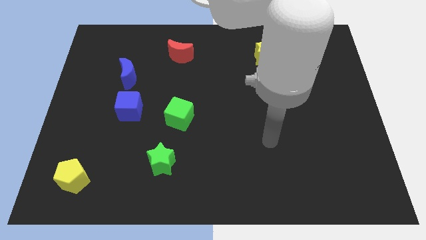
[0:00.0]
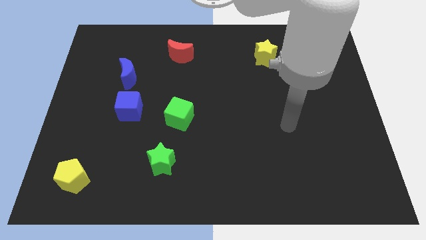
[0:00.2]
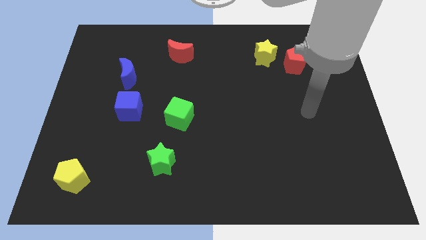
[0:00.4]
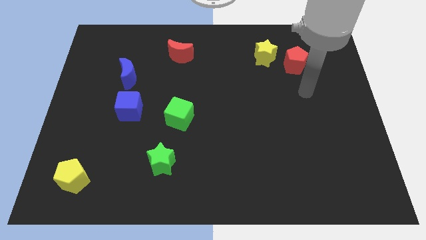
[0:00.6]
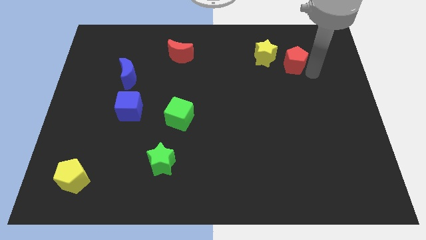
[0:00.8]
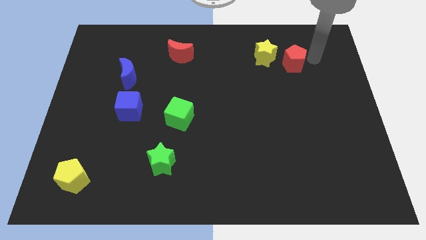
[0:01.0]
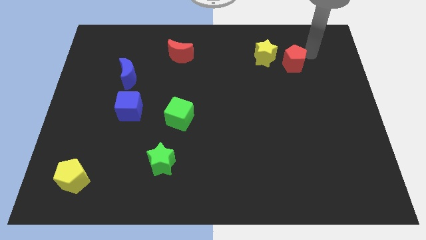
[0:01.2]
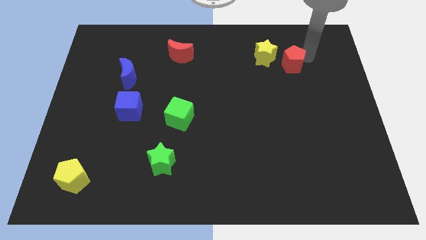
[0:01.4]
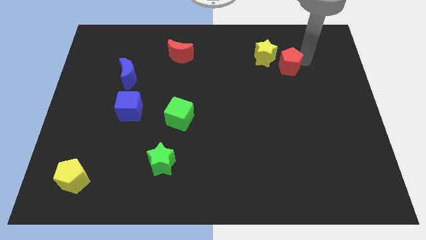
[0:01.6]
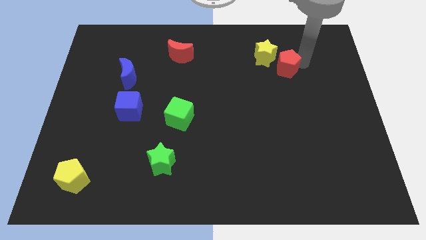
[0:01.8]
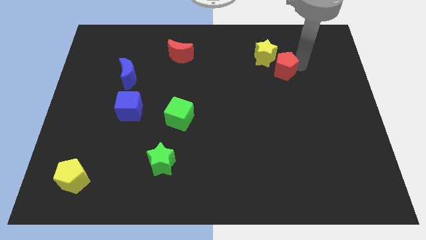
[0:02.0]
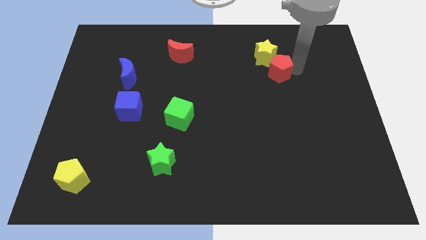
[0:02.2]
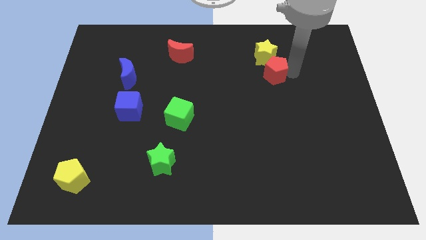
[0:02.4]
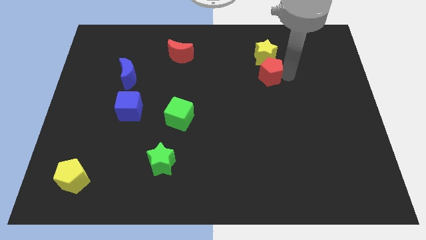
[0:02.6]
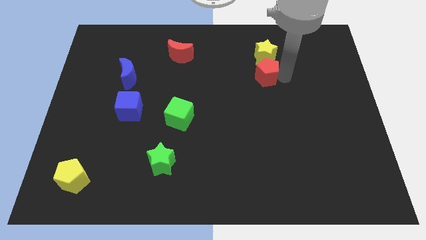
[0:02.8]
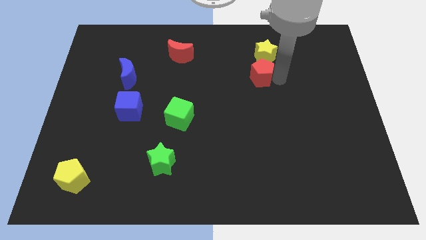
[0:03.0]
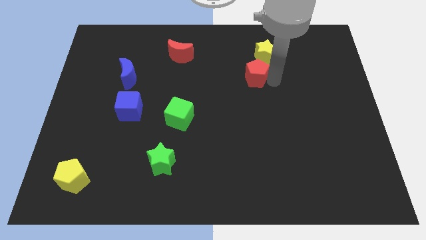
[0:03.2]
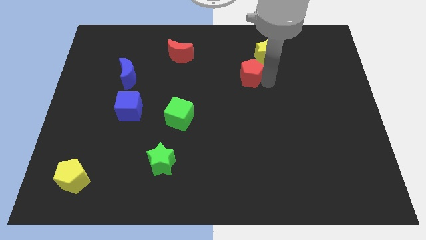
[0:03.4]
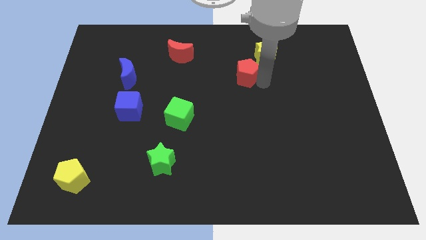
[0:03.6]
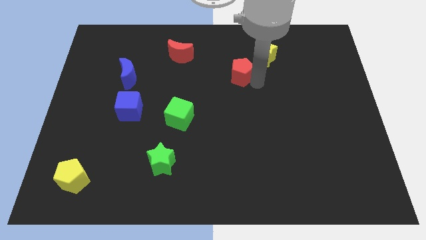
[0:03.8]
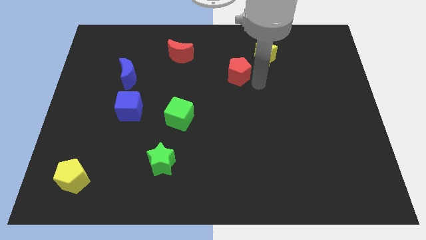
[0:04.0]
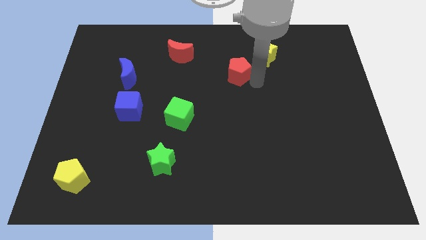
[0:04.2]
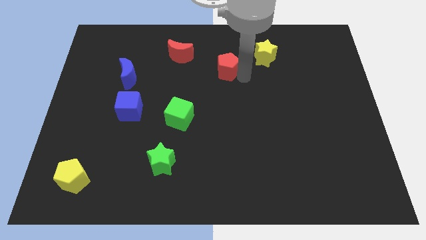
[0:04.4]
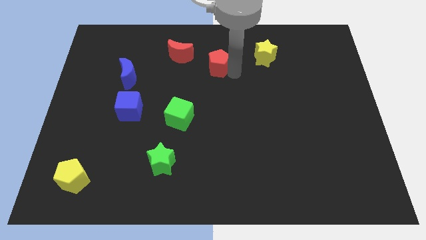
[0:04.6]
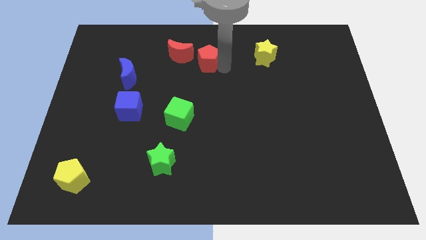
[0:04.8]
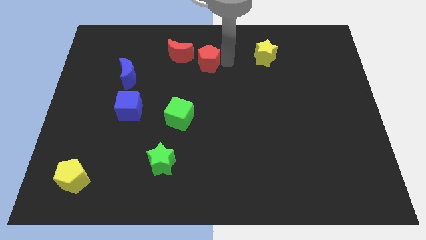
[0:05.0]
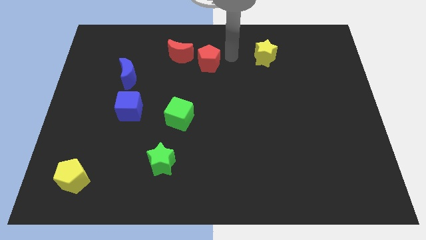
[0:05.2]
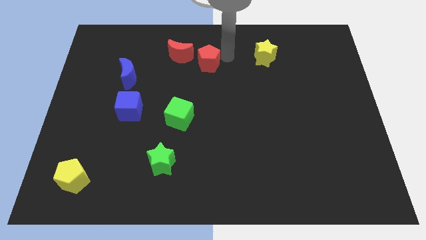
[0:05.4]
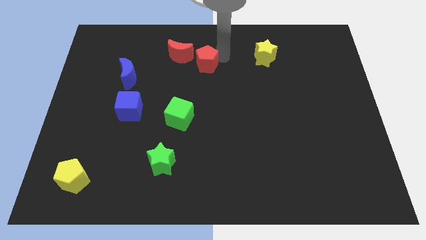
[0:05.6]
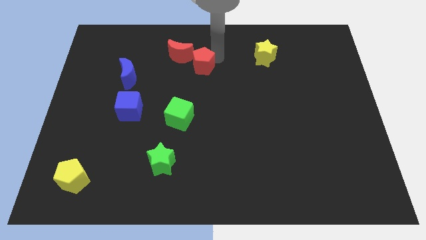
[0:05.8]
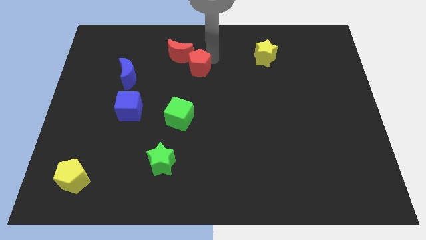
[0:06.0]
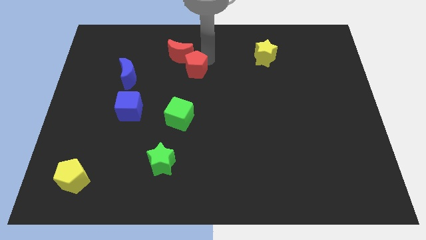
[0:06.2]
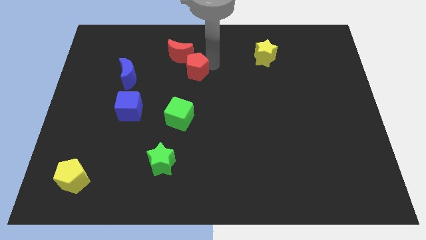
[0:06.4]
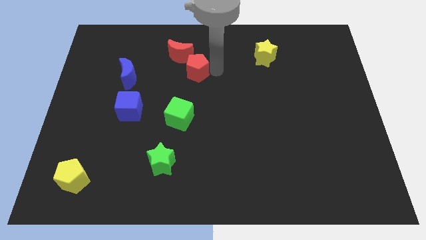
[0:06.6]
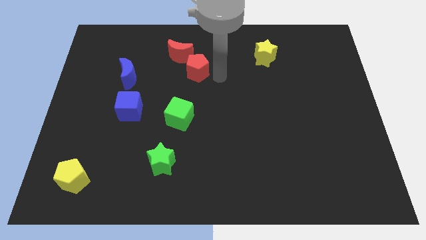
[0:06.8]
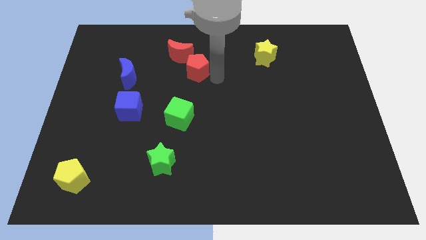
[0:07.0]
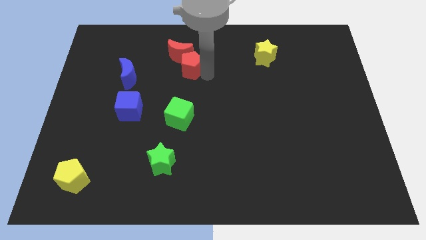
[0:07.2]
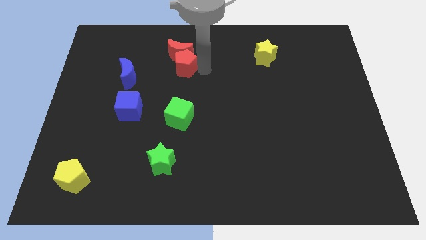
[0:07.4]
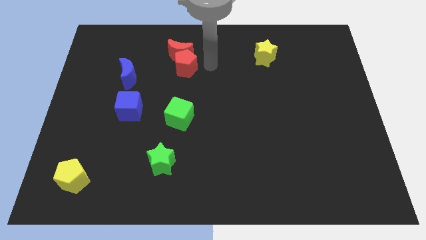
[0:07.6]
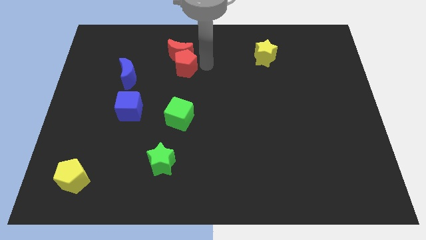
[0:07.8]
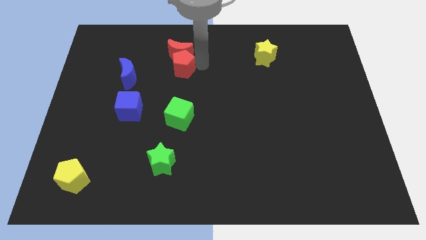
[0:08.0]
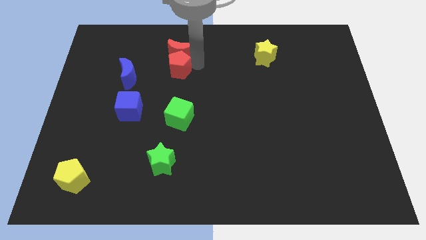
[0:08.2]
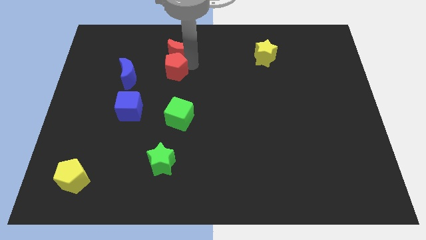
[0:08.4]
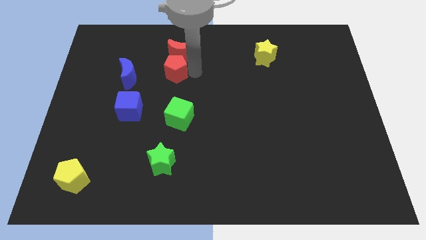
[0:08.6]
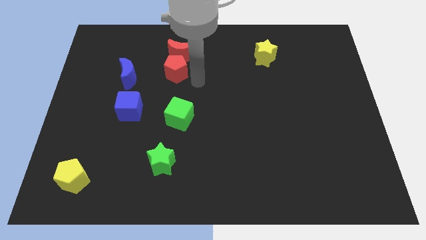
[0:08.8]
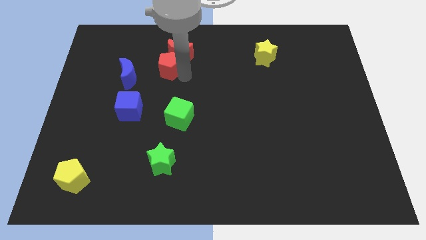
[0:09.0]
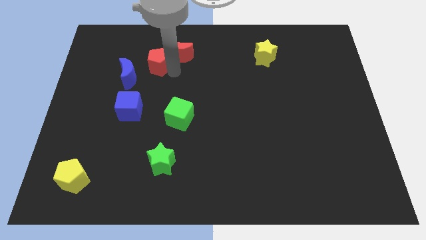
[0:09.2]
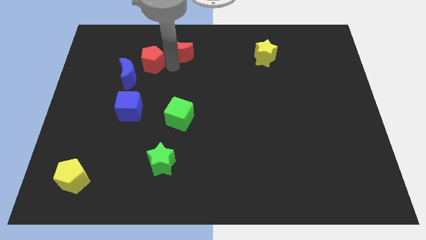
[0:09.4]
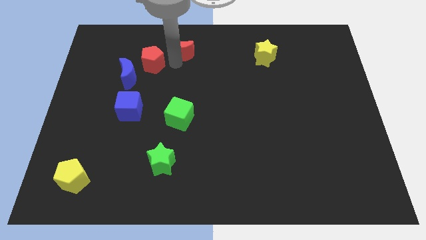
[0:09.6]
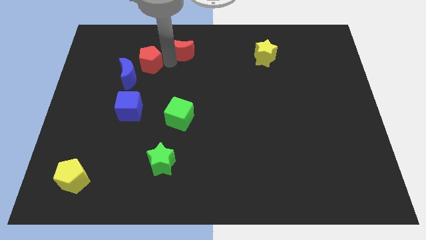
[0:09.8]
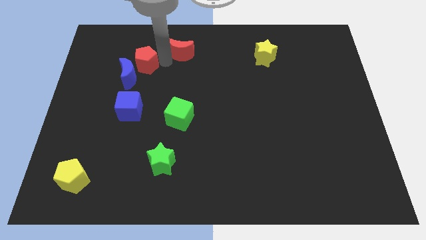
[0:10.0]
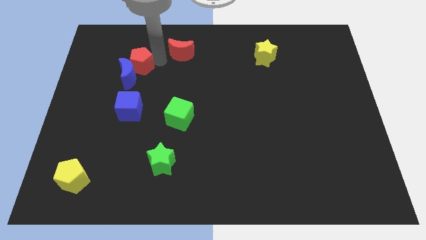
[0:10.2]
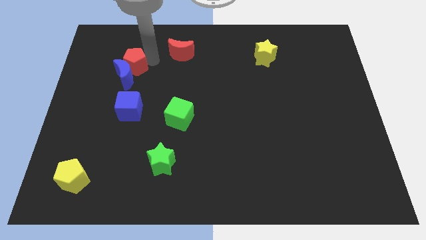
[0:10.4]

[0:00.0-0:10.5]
put the red pentagon diagonally up and to the left of the blue moon
